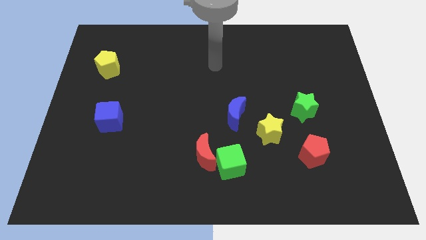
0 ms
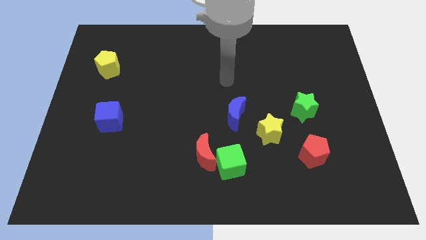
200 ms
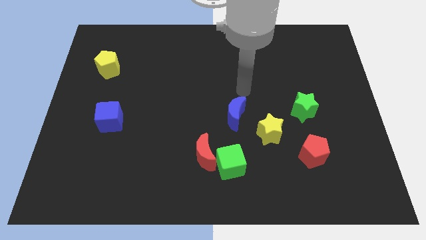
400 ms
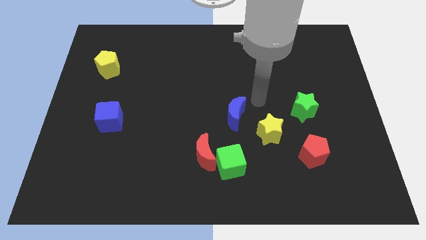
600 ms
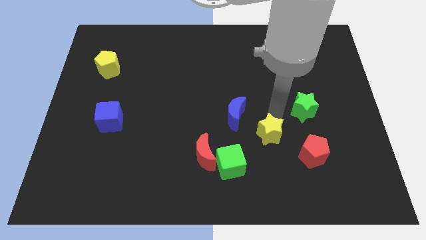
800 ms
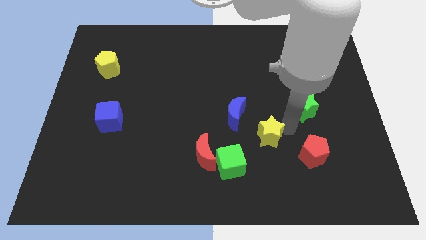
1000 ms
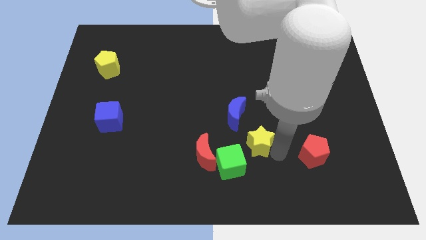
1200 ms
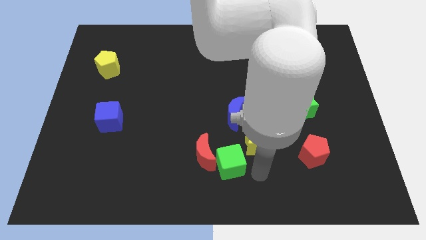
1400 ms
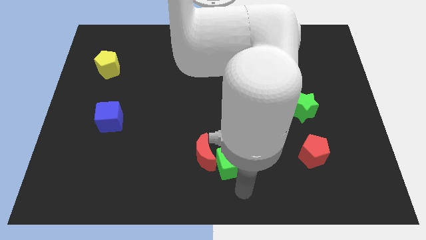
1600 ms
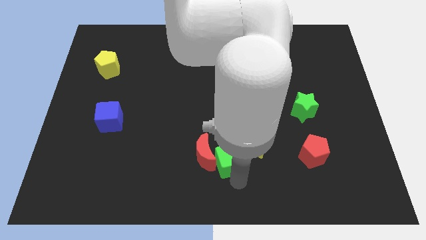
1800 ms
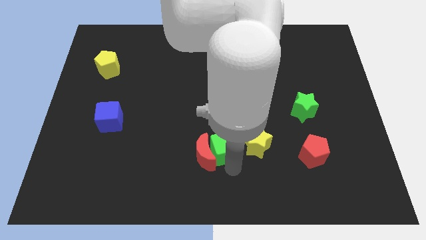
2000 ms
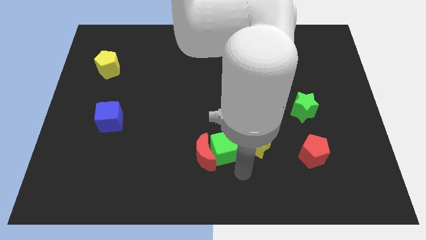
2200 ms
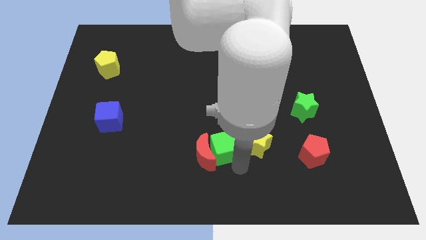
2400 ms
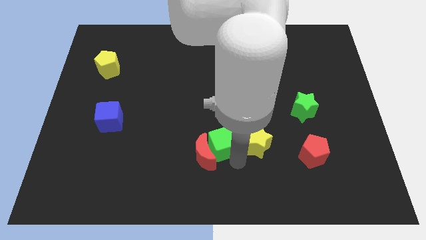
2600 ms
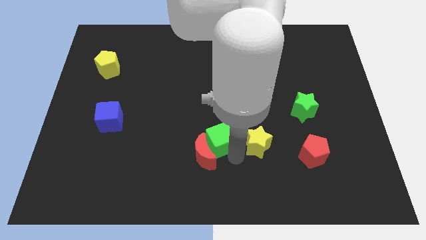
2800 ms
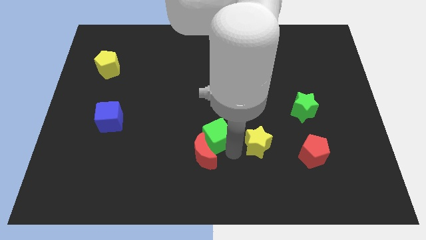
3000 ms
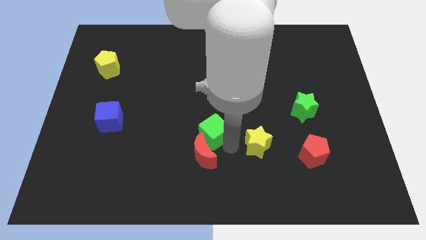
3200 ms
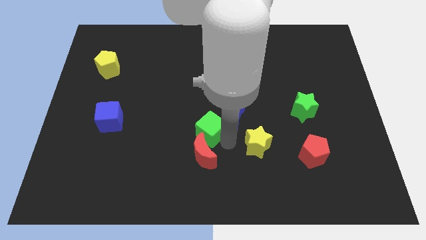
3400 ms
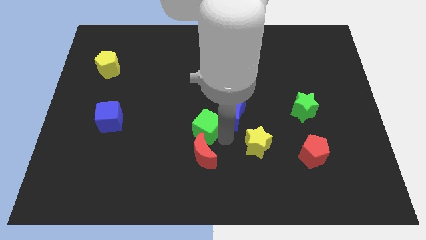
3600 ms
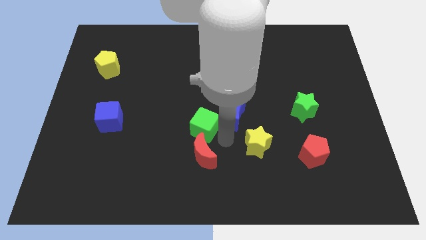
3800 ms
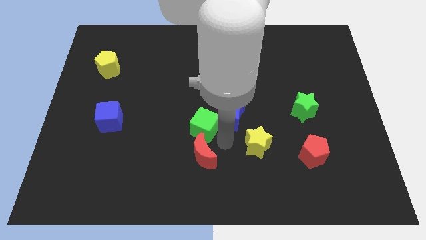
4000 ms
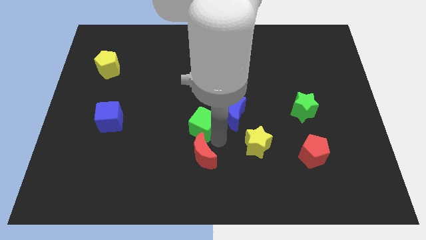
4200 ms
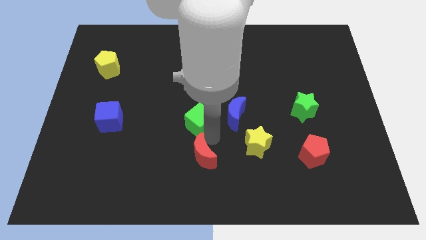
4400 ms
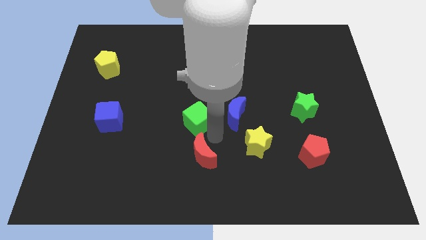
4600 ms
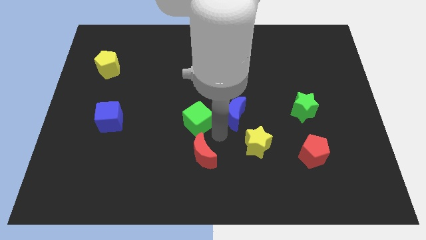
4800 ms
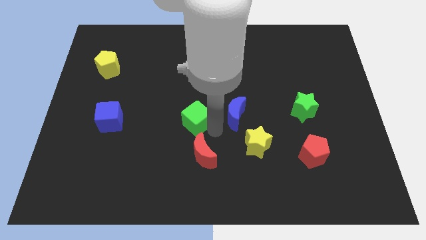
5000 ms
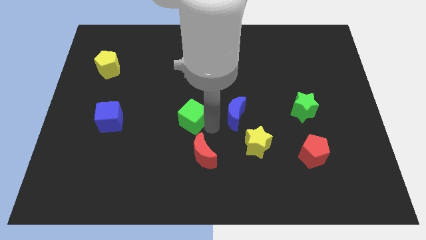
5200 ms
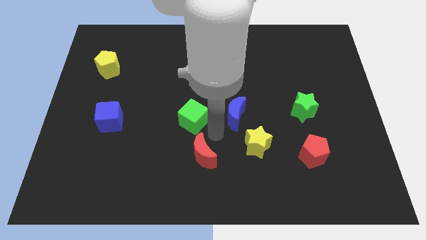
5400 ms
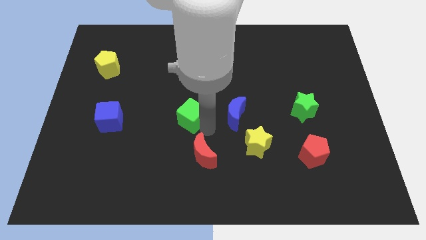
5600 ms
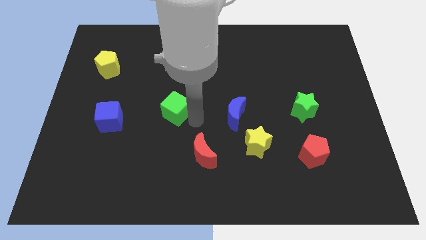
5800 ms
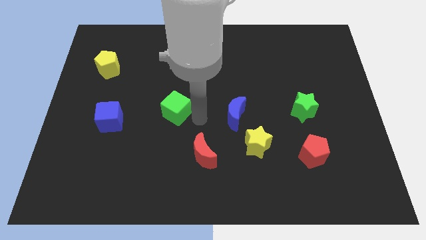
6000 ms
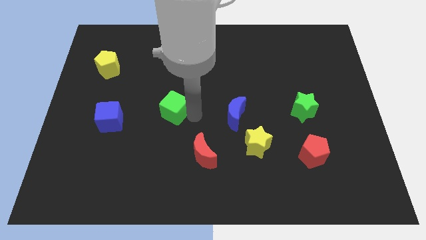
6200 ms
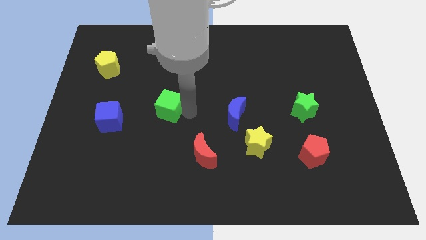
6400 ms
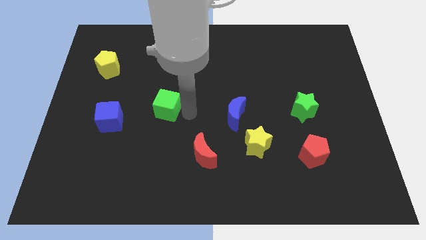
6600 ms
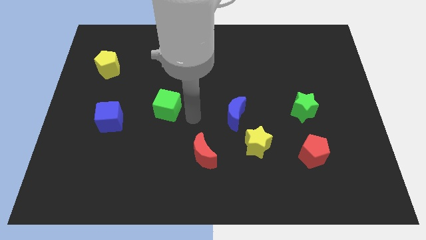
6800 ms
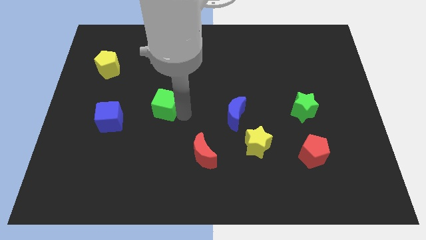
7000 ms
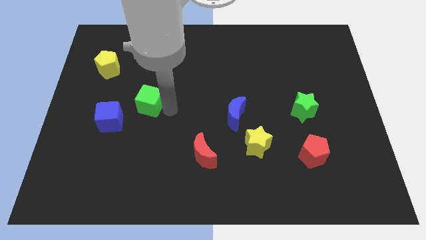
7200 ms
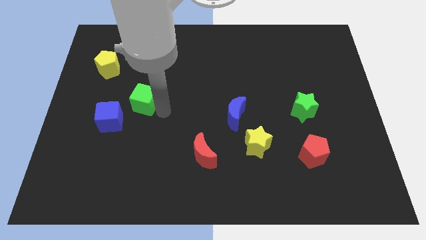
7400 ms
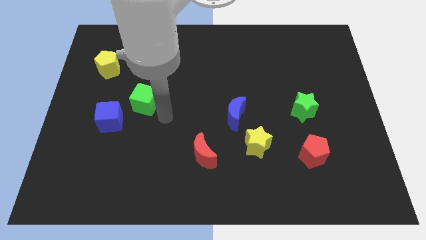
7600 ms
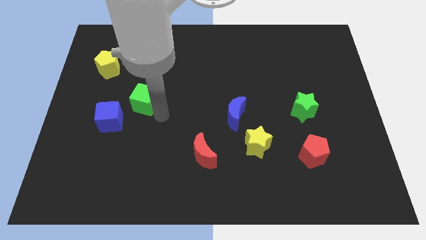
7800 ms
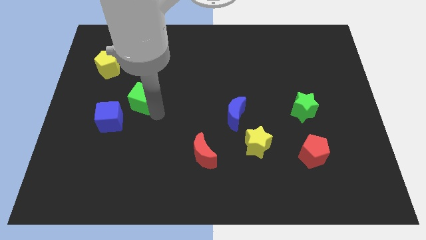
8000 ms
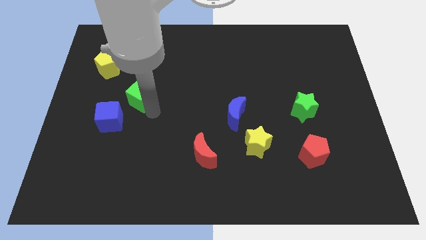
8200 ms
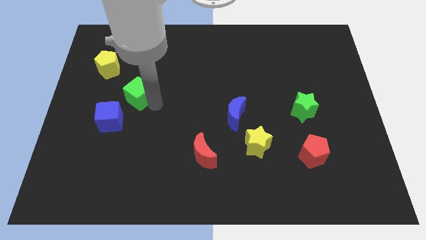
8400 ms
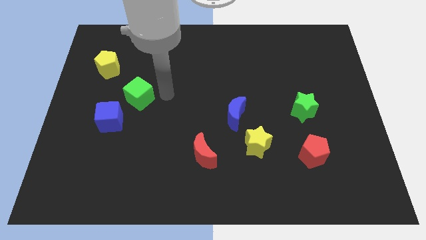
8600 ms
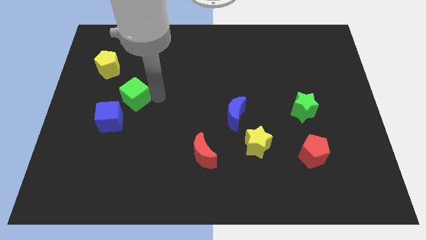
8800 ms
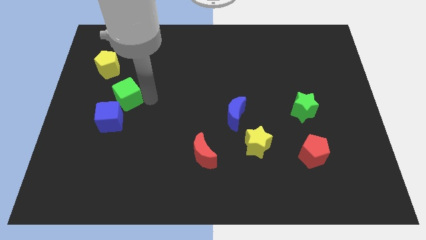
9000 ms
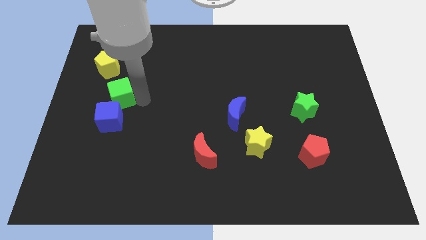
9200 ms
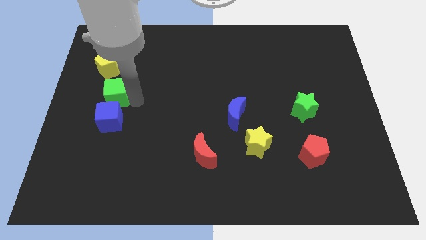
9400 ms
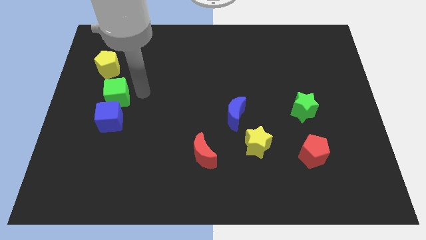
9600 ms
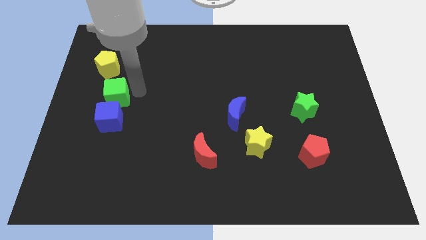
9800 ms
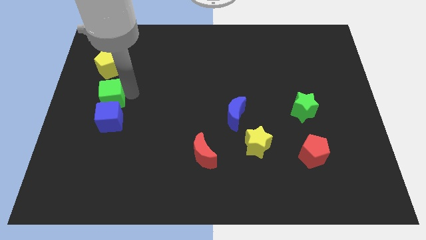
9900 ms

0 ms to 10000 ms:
move the green cube diagonally up and to the left of the blue cube

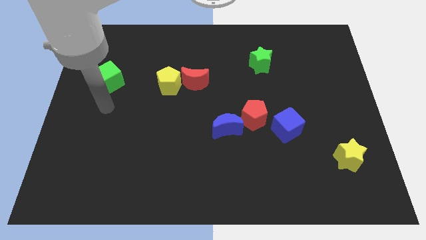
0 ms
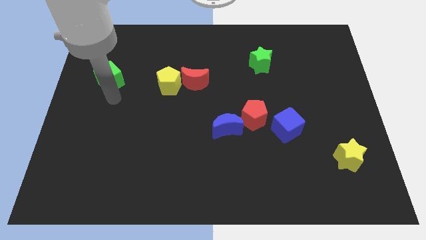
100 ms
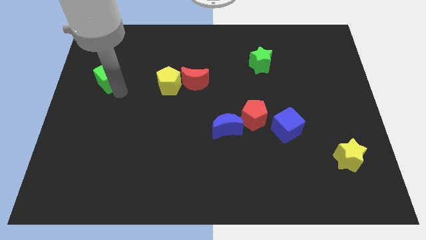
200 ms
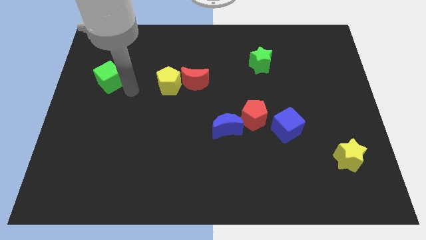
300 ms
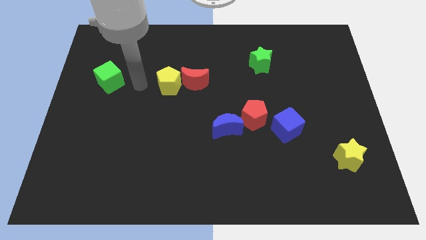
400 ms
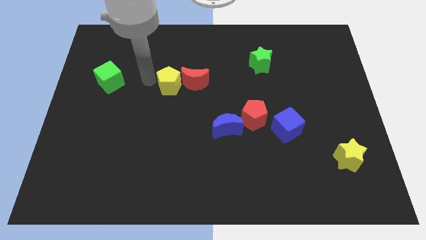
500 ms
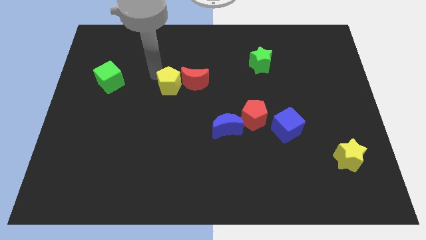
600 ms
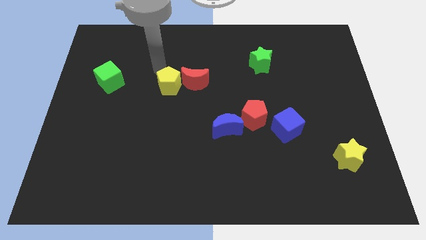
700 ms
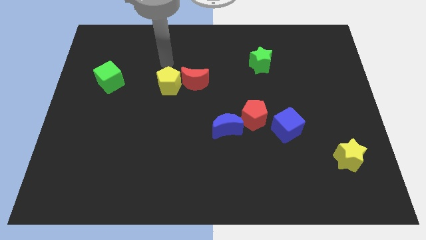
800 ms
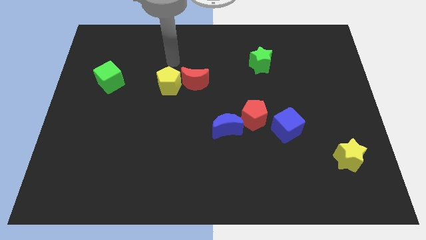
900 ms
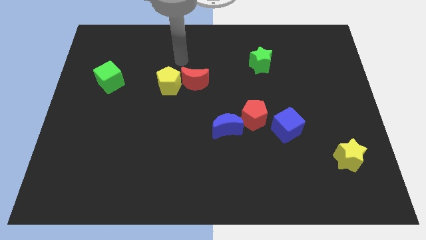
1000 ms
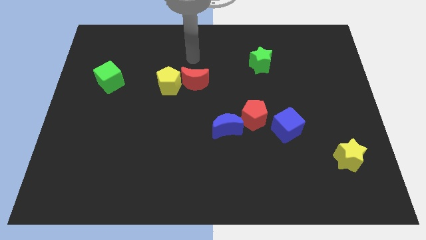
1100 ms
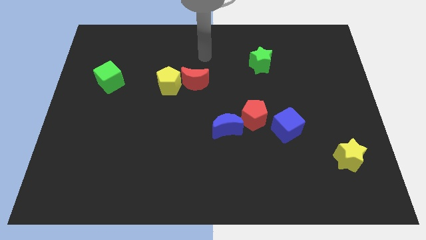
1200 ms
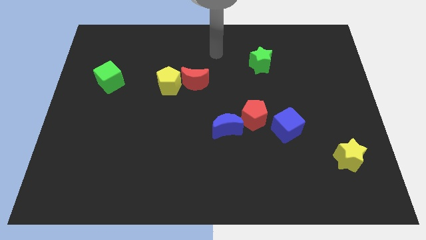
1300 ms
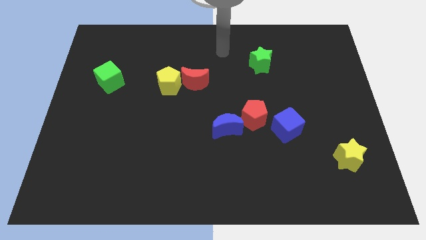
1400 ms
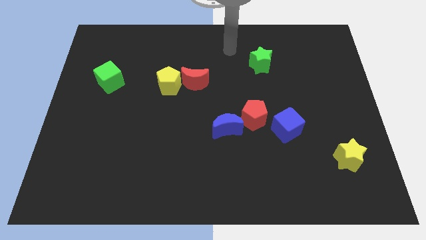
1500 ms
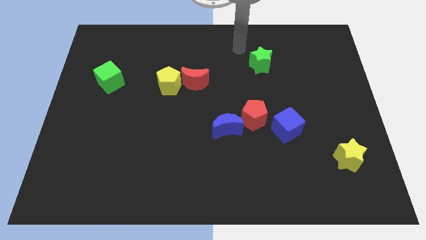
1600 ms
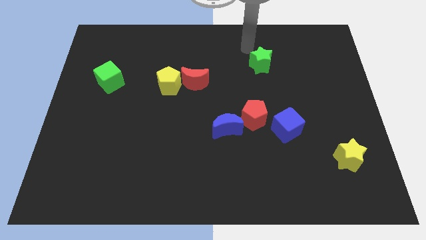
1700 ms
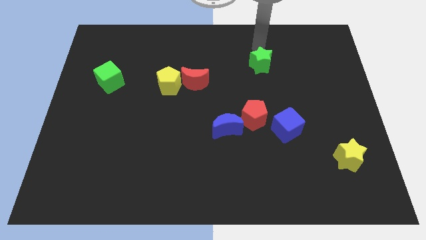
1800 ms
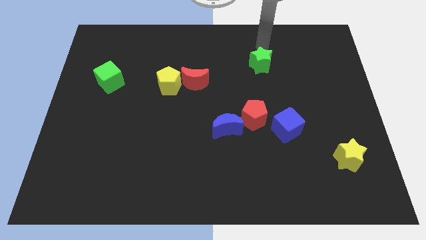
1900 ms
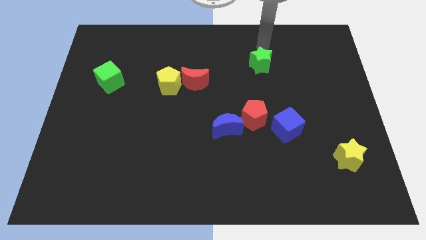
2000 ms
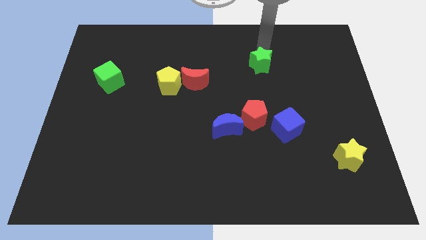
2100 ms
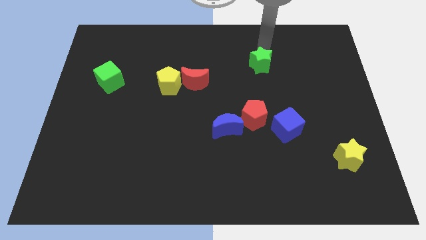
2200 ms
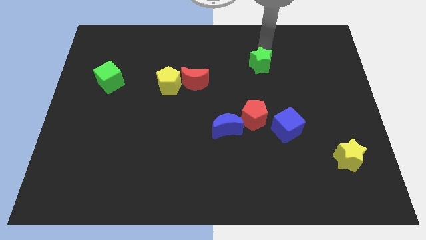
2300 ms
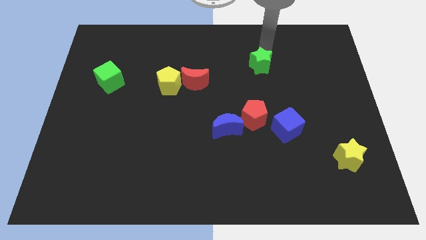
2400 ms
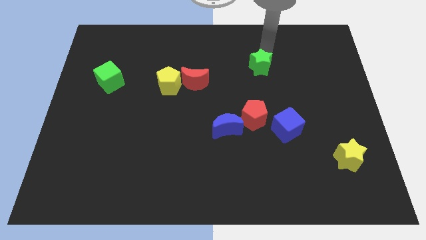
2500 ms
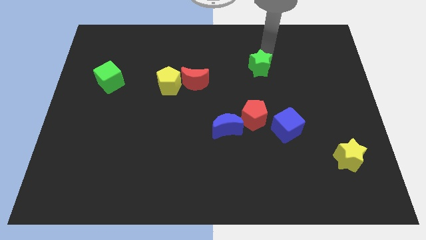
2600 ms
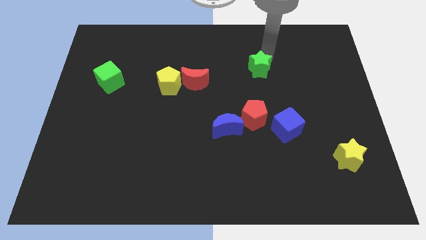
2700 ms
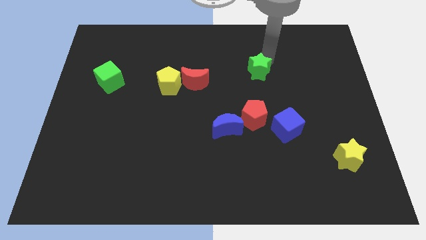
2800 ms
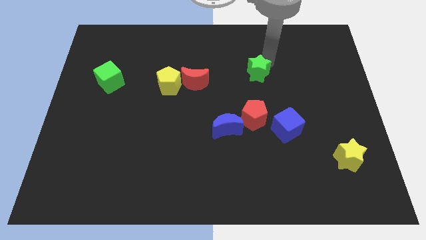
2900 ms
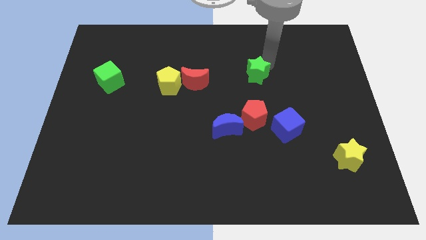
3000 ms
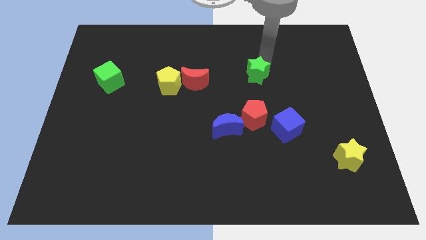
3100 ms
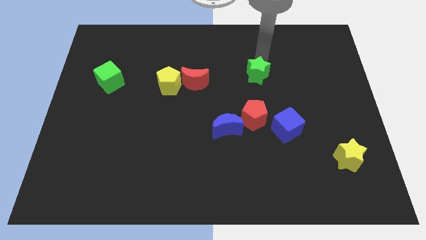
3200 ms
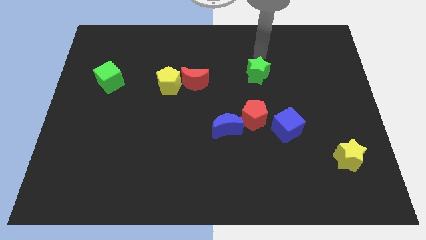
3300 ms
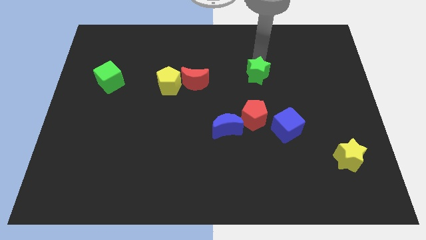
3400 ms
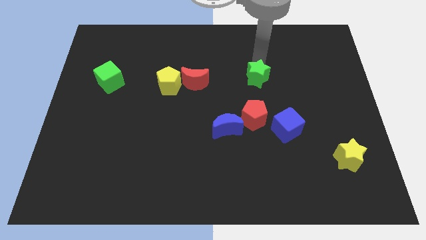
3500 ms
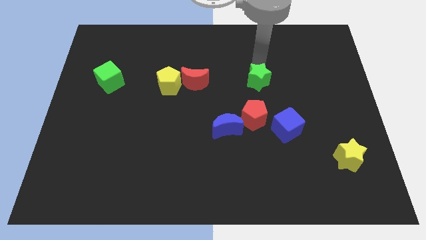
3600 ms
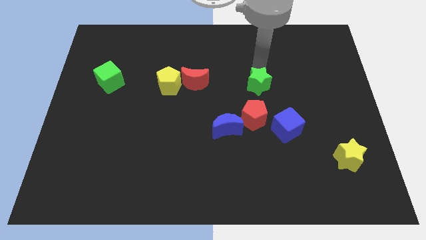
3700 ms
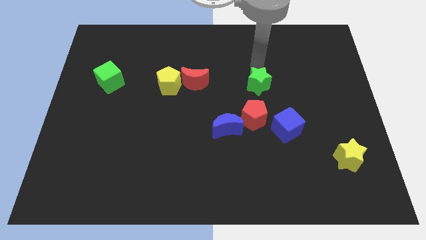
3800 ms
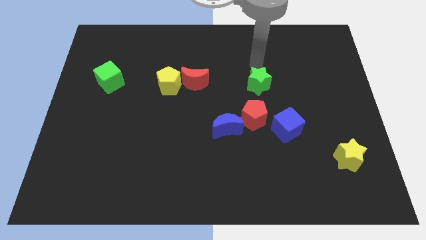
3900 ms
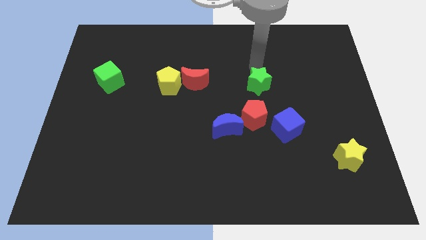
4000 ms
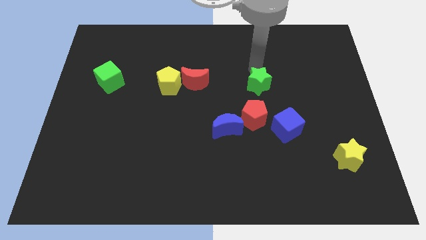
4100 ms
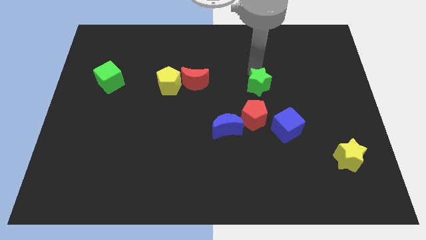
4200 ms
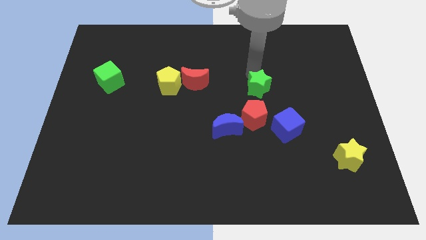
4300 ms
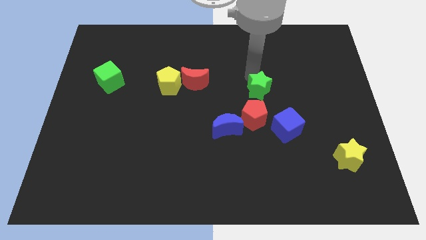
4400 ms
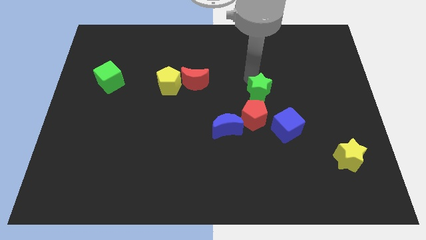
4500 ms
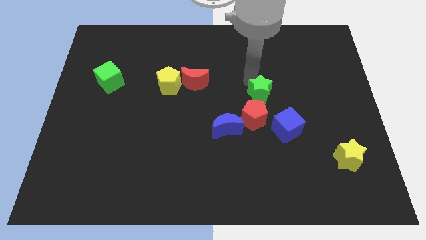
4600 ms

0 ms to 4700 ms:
push the green star to the top left of the blue cube
